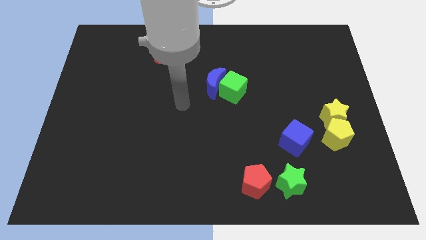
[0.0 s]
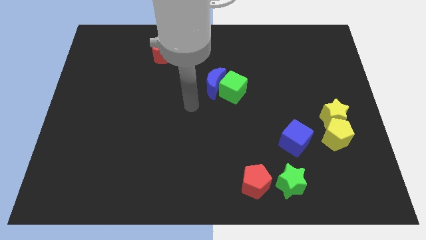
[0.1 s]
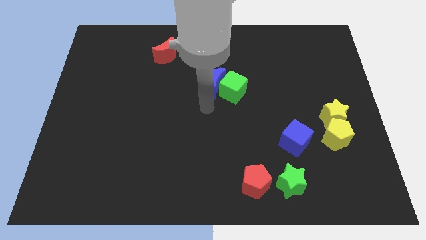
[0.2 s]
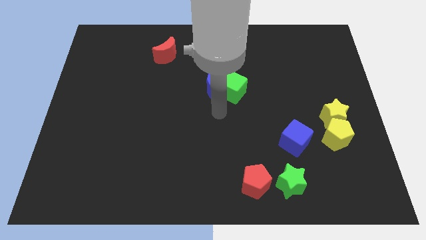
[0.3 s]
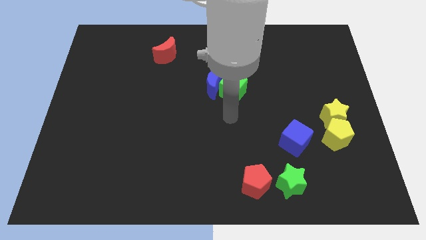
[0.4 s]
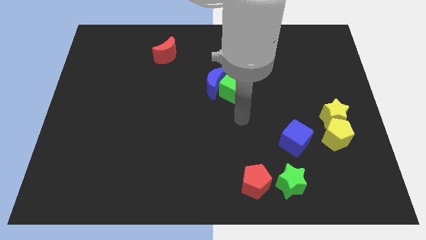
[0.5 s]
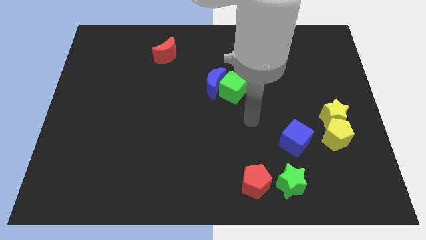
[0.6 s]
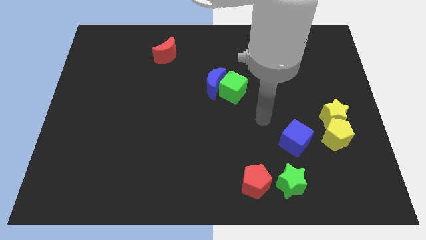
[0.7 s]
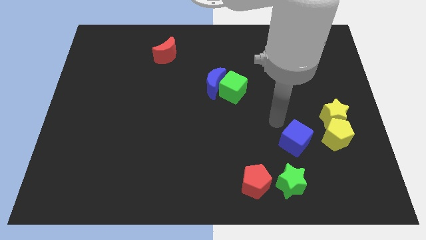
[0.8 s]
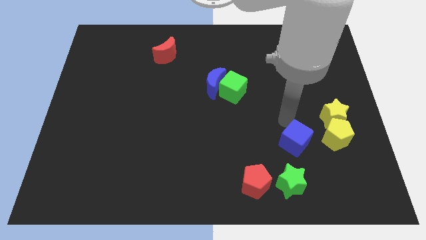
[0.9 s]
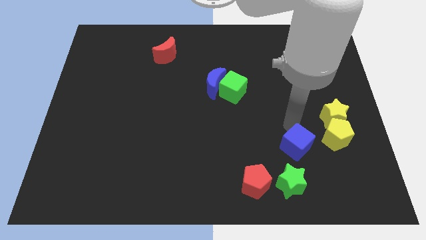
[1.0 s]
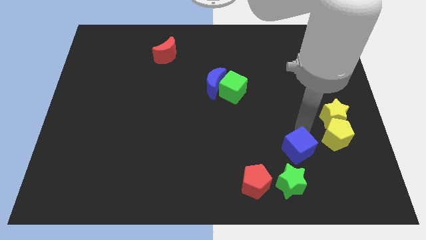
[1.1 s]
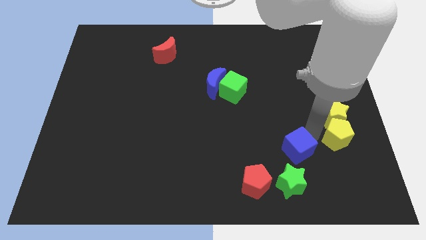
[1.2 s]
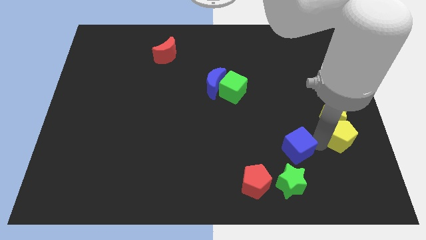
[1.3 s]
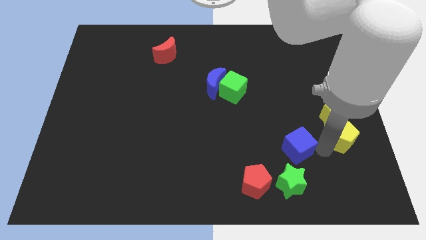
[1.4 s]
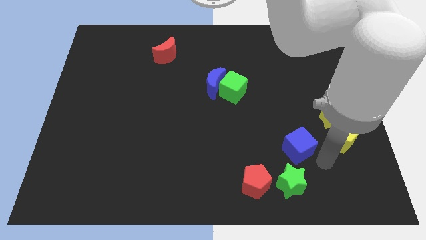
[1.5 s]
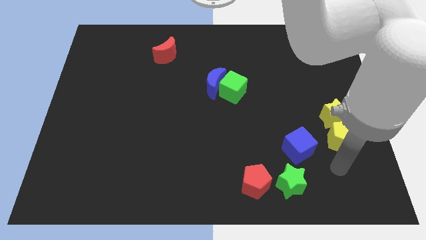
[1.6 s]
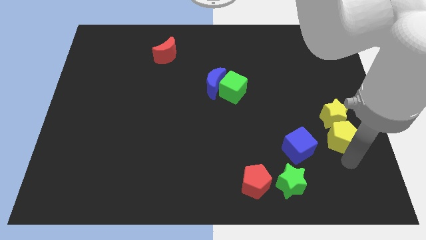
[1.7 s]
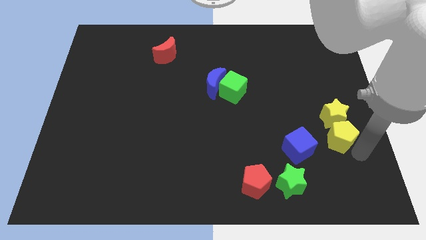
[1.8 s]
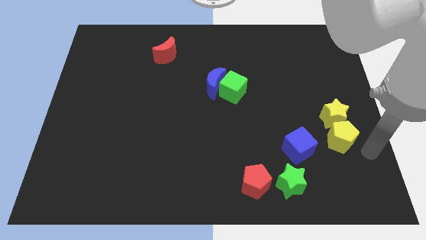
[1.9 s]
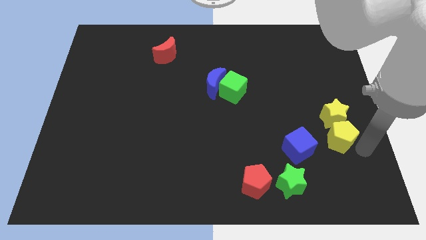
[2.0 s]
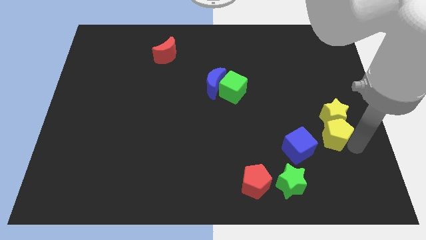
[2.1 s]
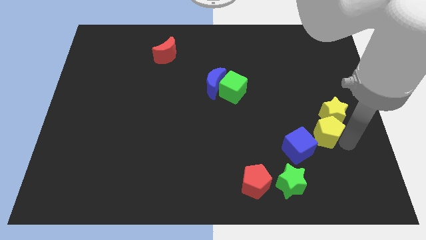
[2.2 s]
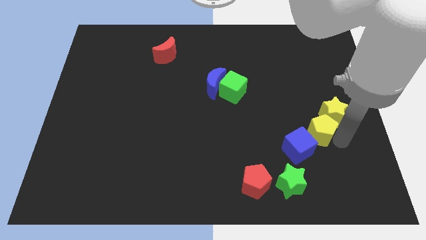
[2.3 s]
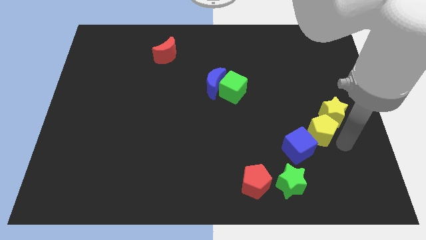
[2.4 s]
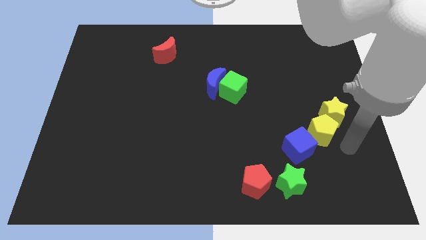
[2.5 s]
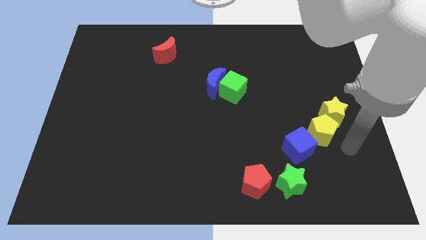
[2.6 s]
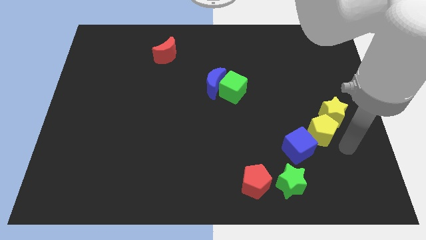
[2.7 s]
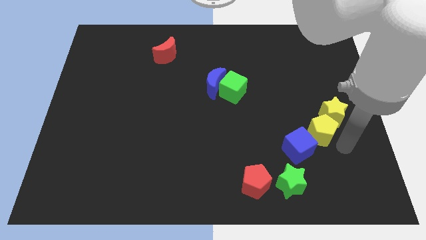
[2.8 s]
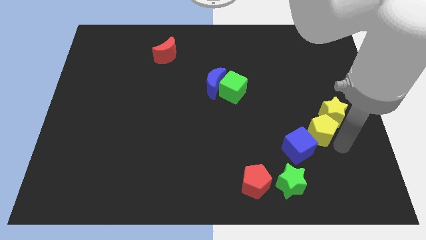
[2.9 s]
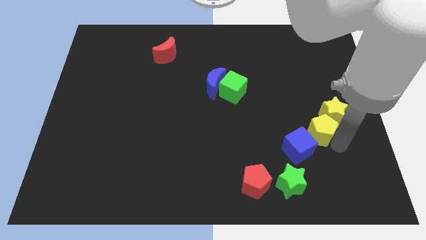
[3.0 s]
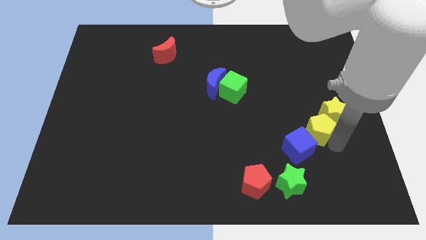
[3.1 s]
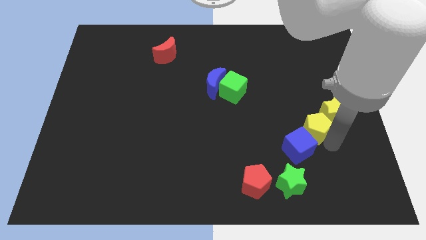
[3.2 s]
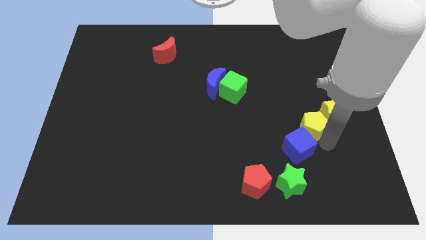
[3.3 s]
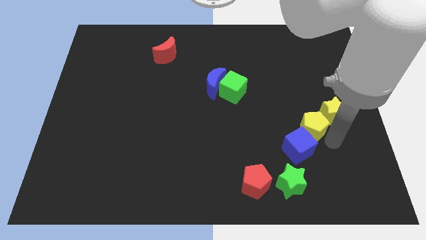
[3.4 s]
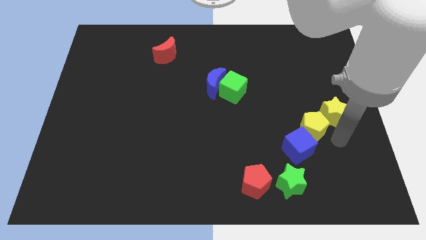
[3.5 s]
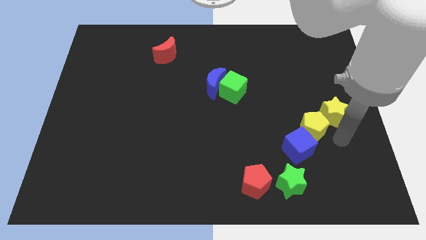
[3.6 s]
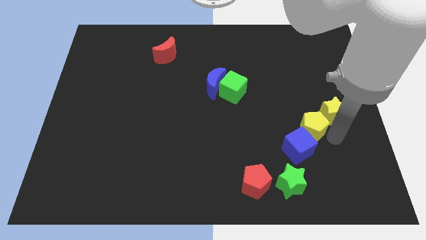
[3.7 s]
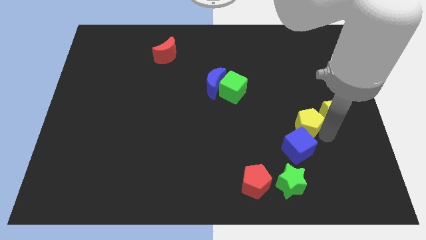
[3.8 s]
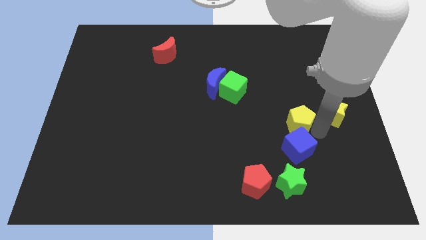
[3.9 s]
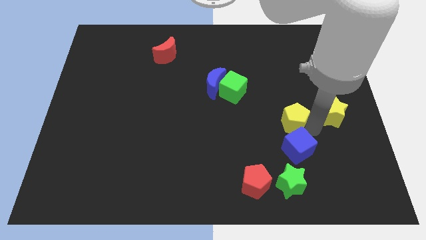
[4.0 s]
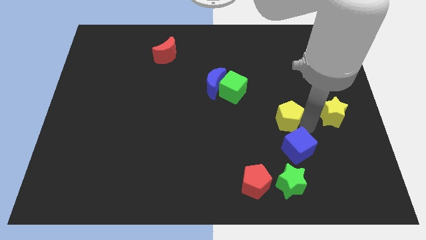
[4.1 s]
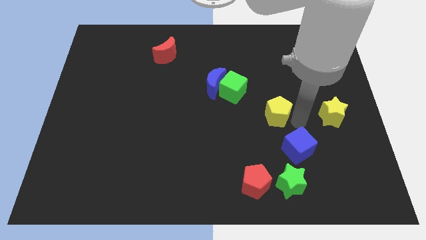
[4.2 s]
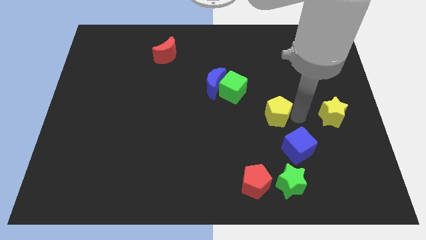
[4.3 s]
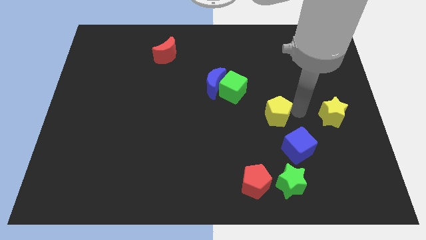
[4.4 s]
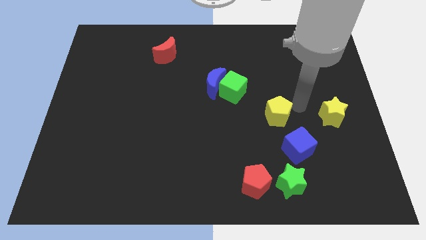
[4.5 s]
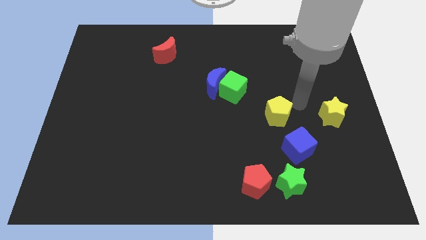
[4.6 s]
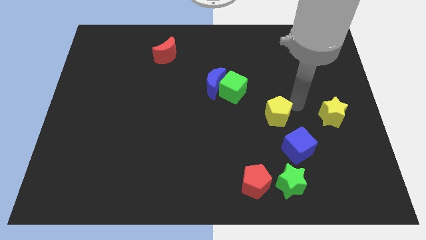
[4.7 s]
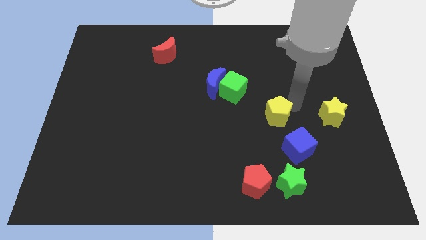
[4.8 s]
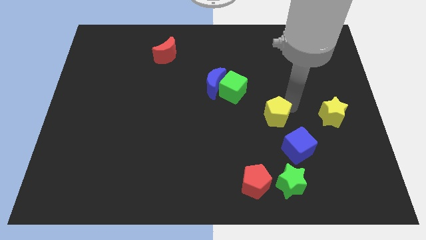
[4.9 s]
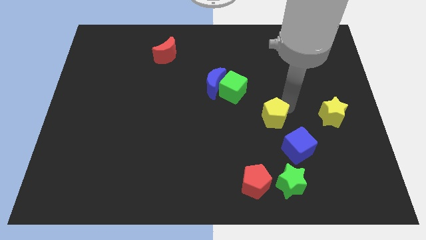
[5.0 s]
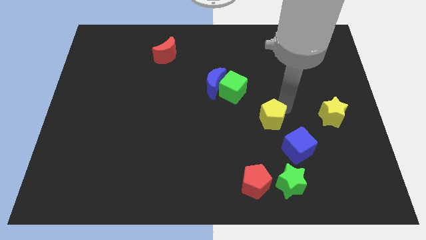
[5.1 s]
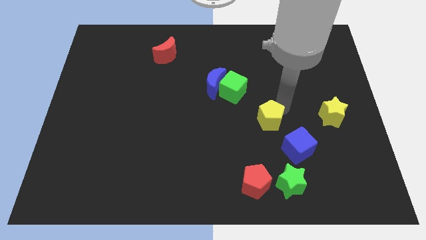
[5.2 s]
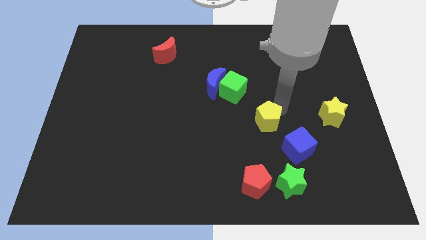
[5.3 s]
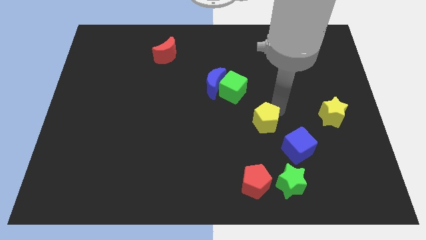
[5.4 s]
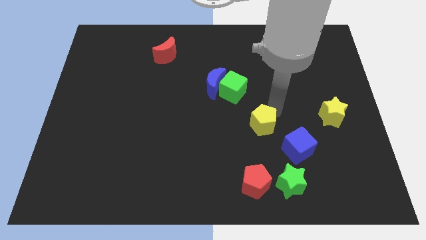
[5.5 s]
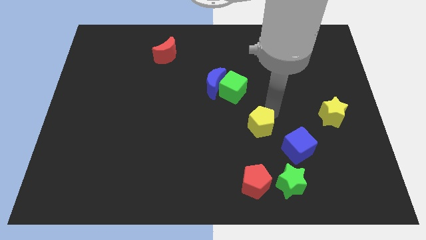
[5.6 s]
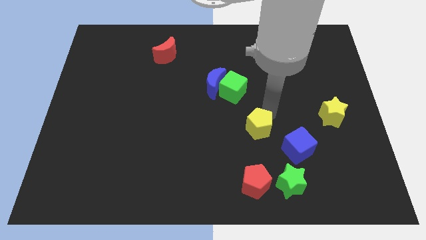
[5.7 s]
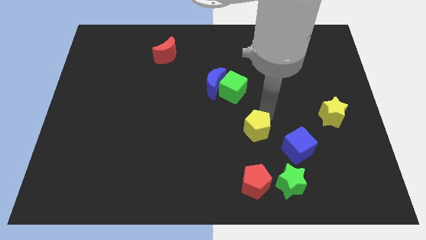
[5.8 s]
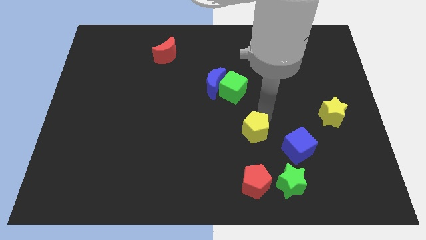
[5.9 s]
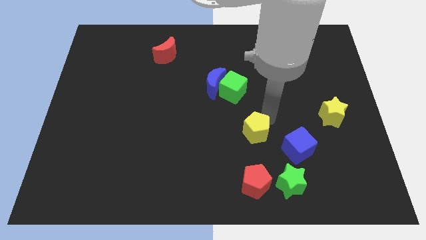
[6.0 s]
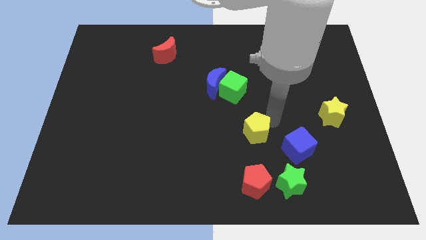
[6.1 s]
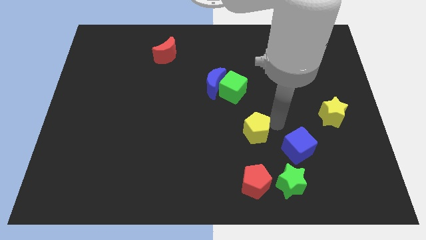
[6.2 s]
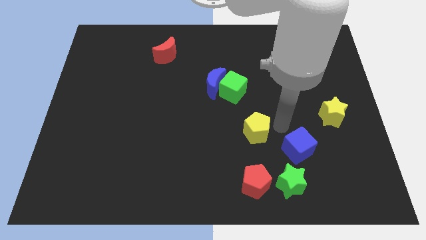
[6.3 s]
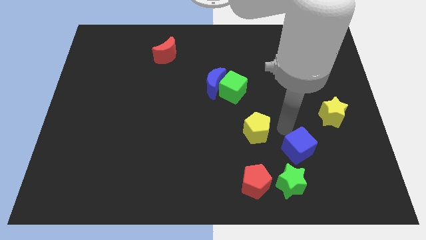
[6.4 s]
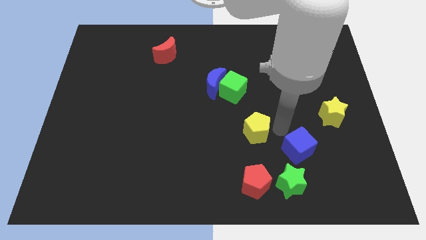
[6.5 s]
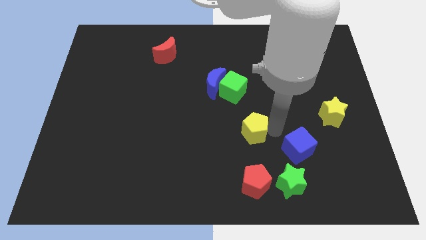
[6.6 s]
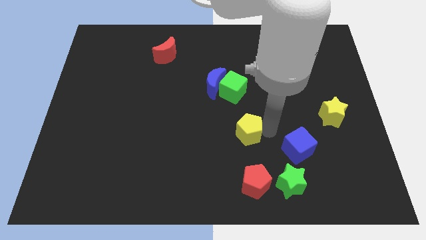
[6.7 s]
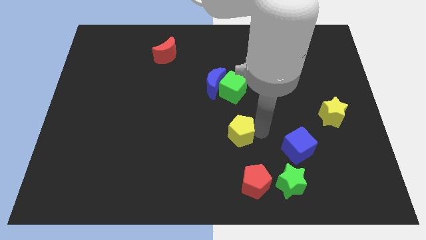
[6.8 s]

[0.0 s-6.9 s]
push the yellow pentagon left

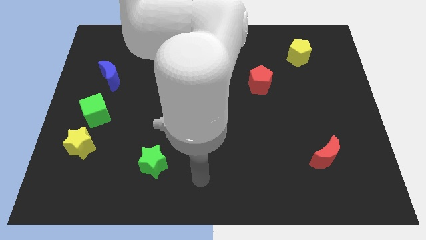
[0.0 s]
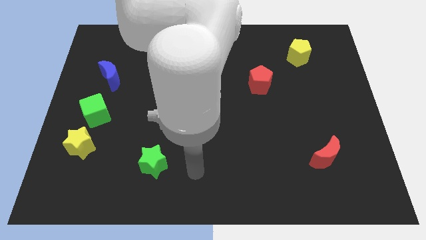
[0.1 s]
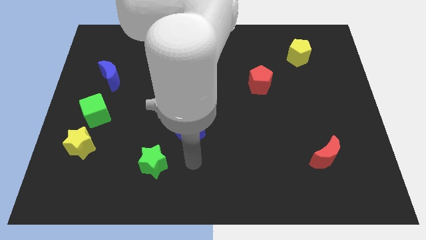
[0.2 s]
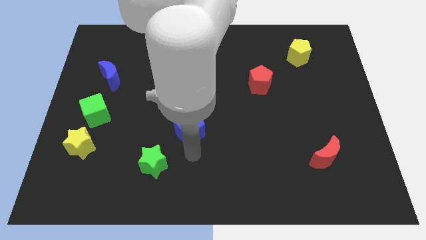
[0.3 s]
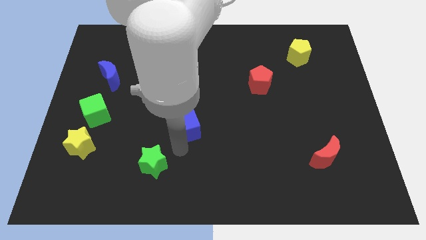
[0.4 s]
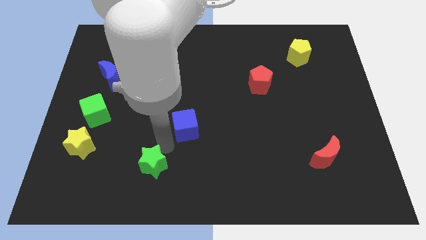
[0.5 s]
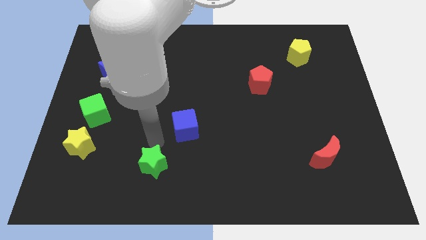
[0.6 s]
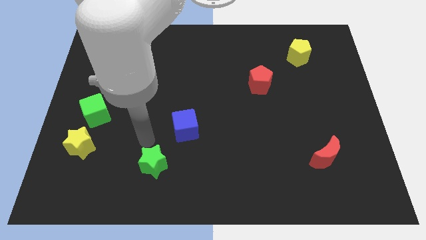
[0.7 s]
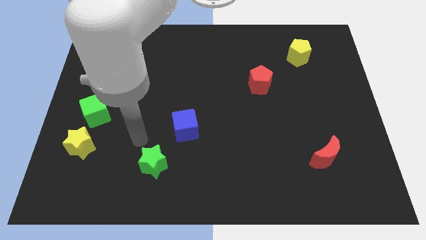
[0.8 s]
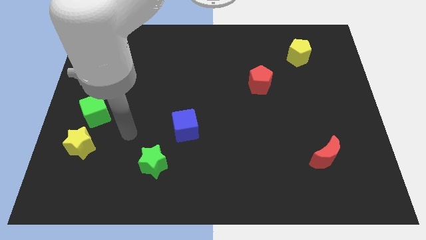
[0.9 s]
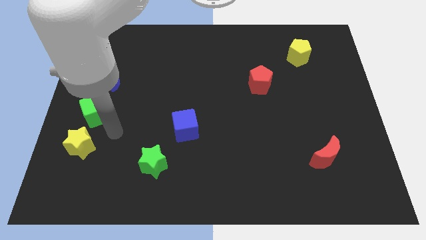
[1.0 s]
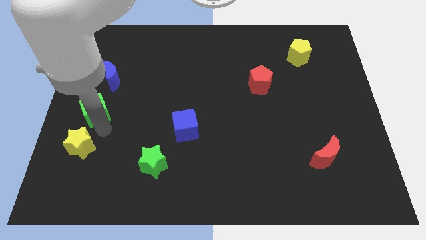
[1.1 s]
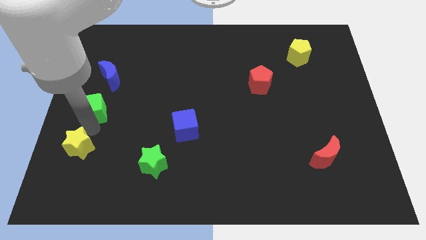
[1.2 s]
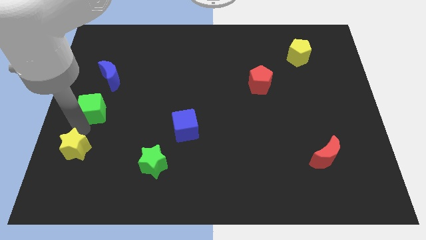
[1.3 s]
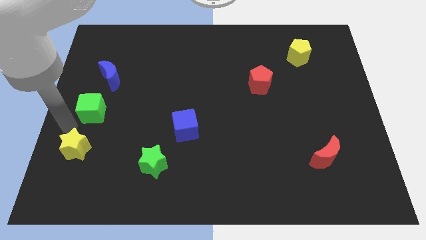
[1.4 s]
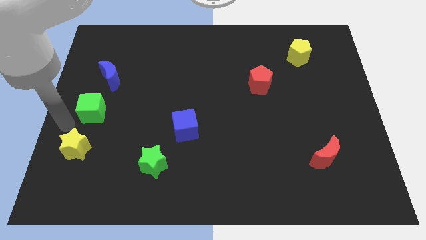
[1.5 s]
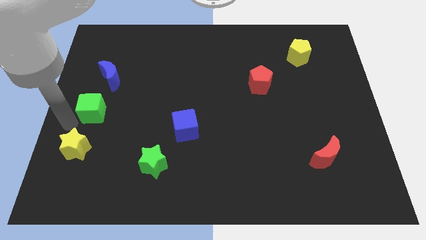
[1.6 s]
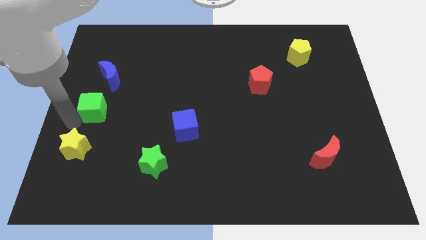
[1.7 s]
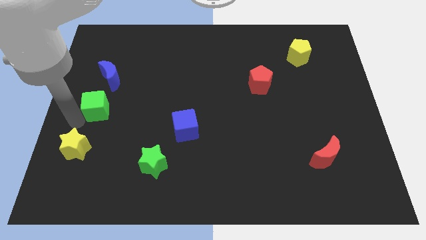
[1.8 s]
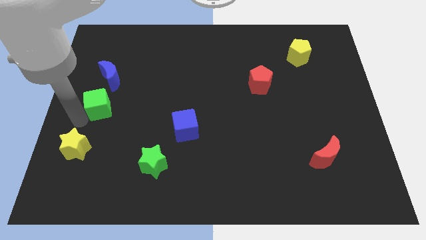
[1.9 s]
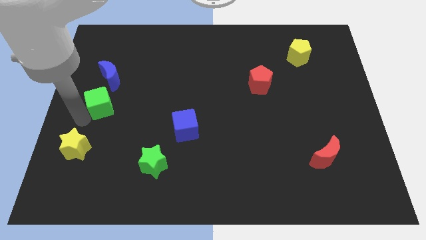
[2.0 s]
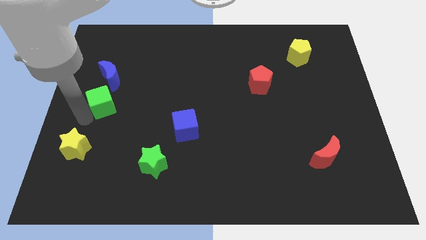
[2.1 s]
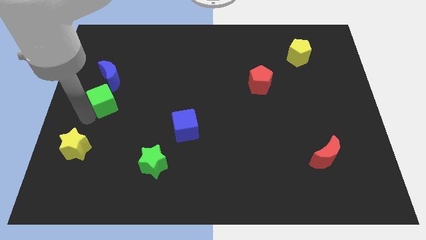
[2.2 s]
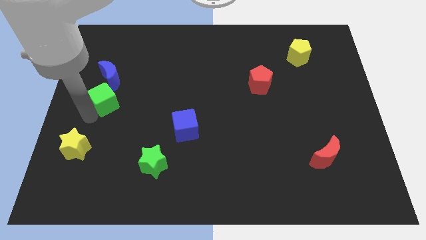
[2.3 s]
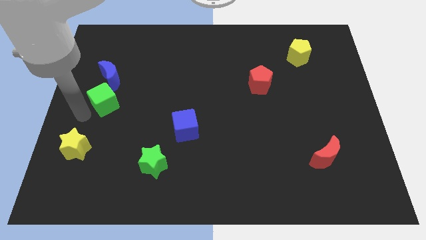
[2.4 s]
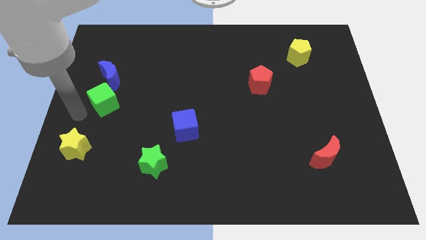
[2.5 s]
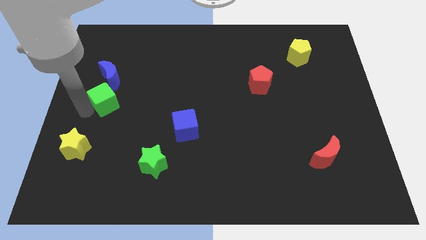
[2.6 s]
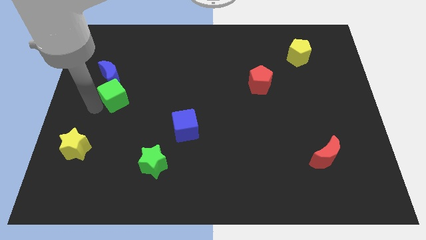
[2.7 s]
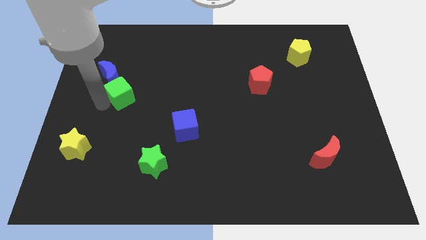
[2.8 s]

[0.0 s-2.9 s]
push the green cube a bit up and then to the right
